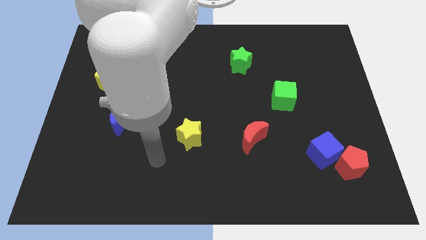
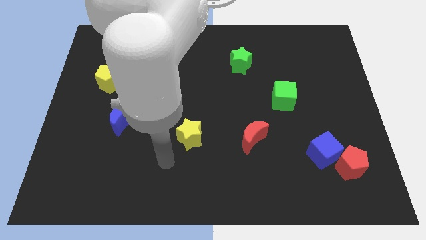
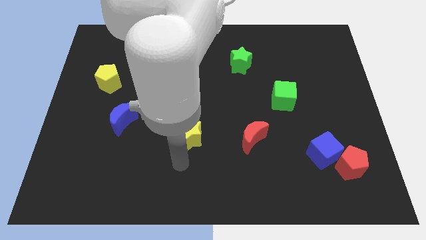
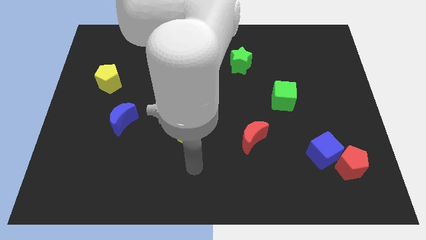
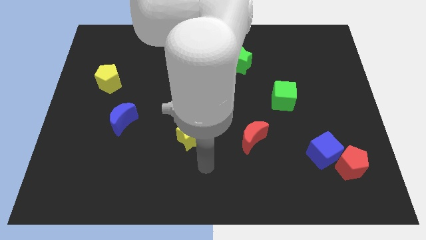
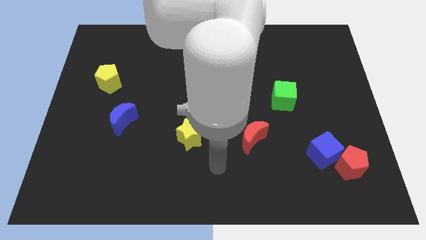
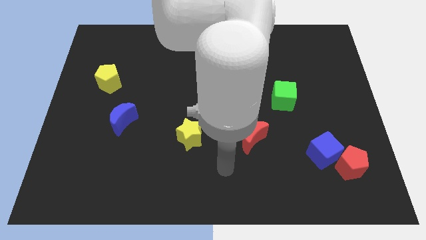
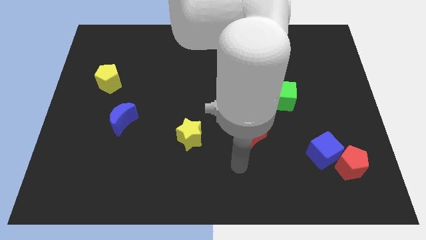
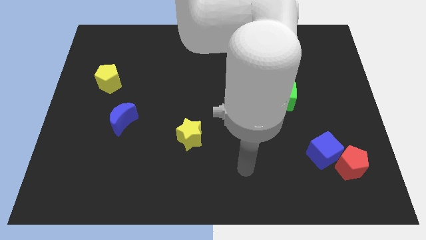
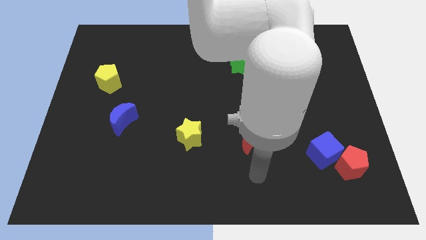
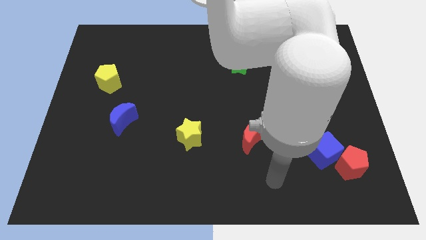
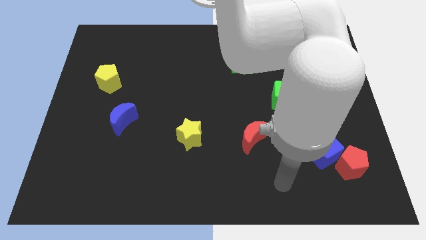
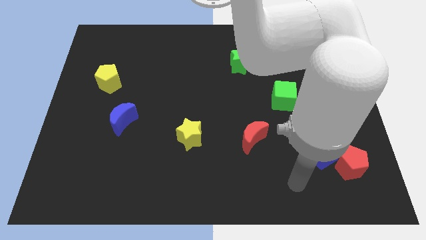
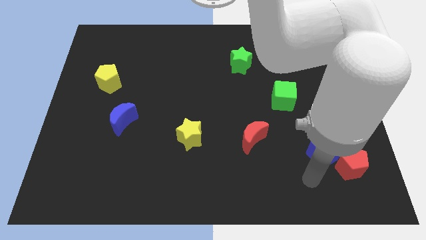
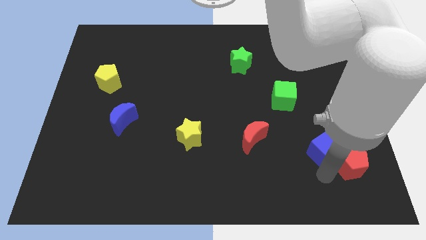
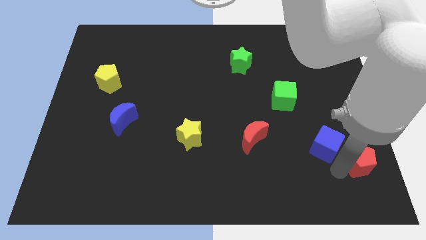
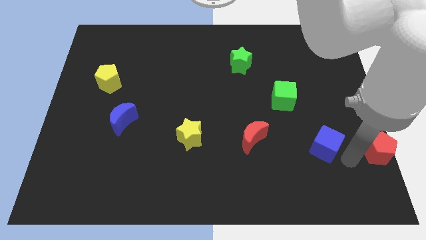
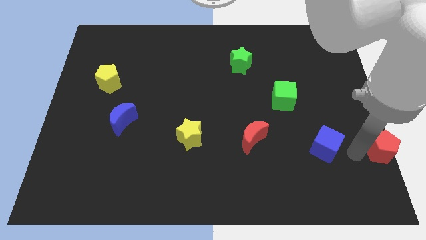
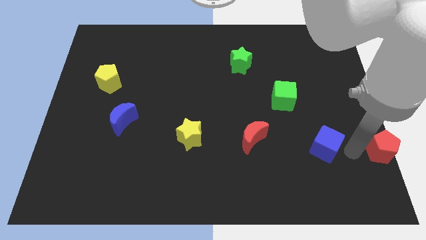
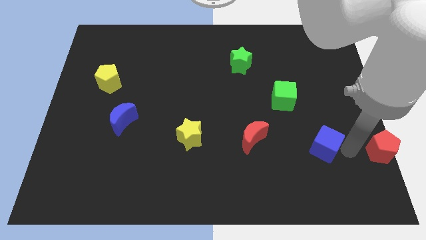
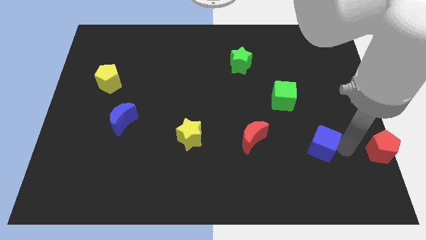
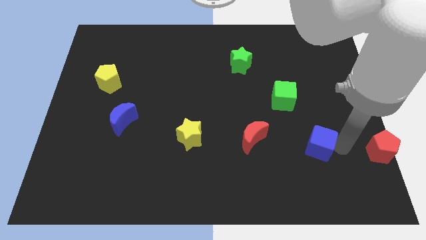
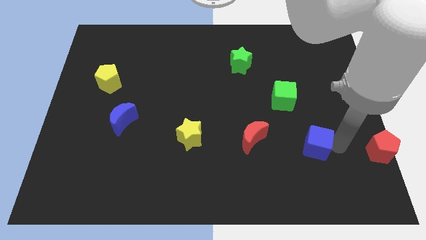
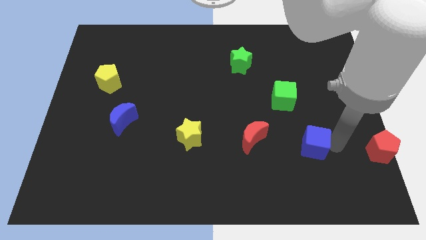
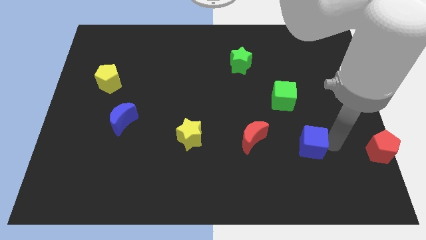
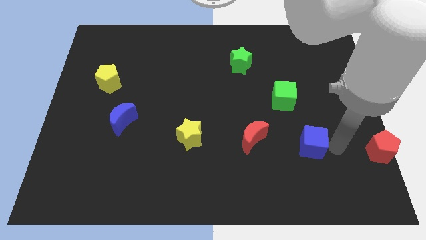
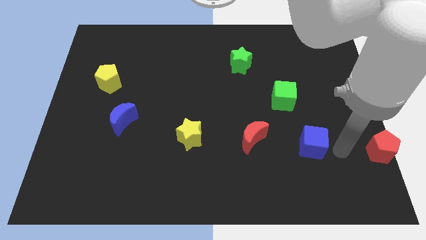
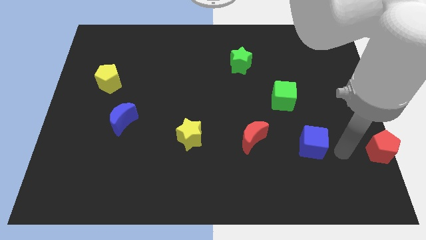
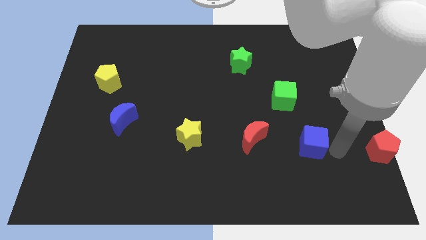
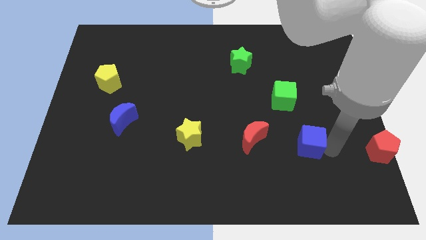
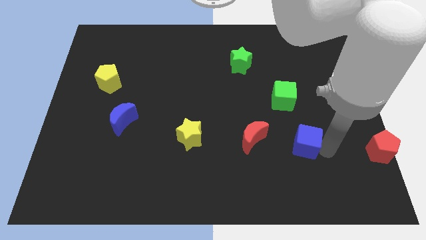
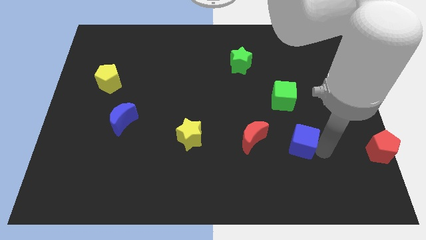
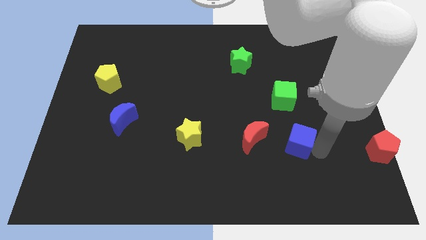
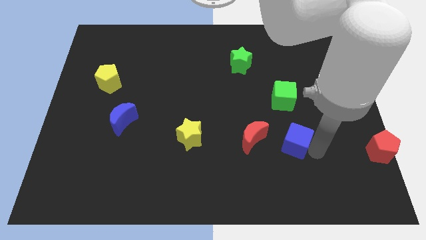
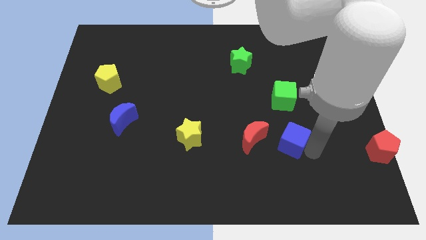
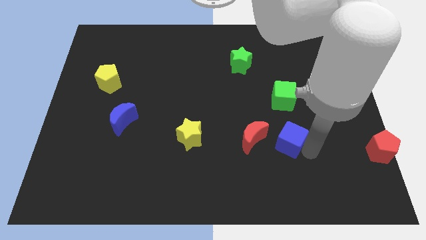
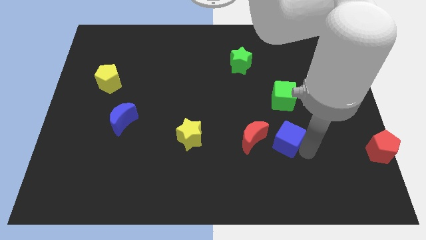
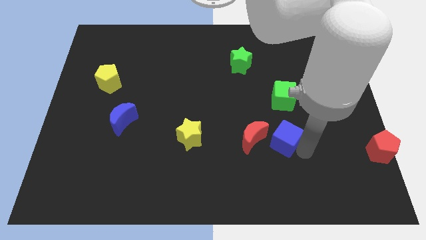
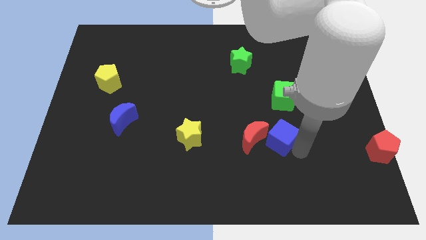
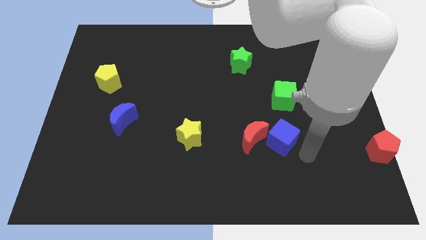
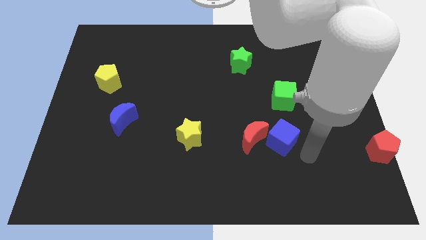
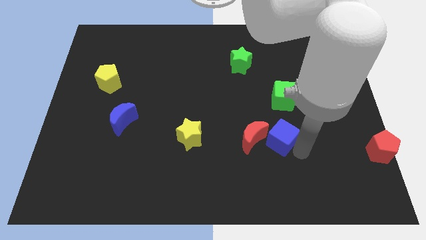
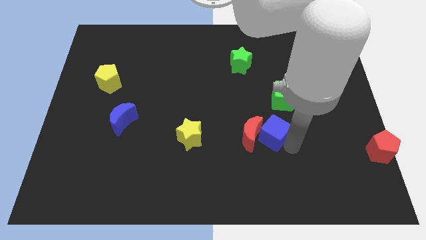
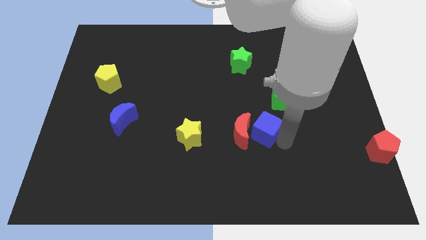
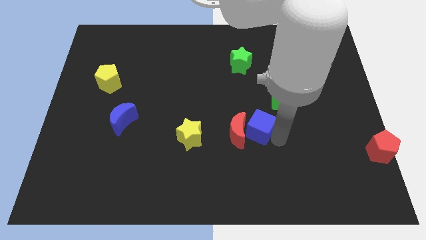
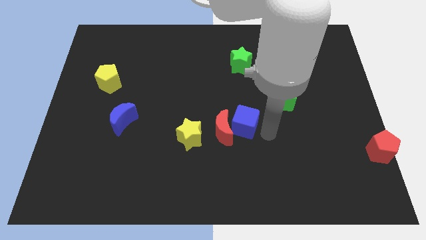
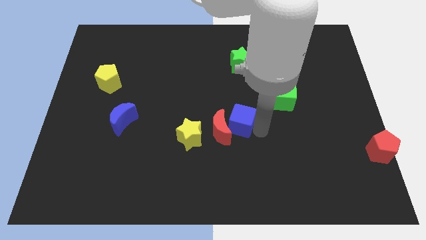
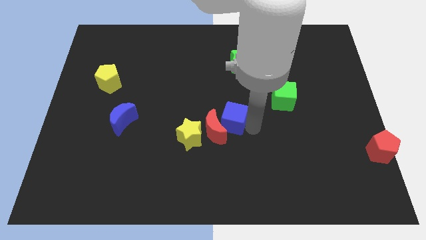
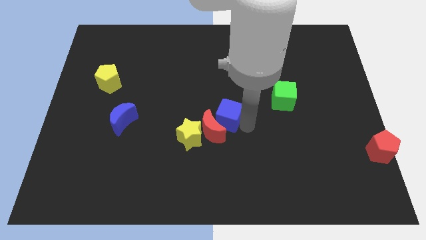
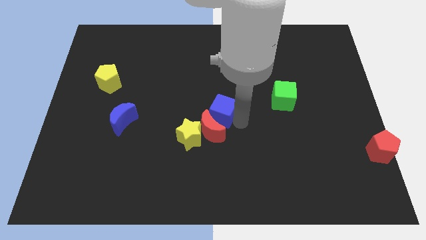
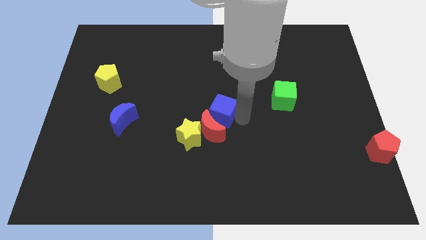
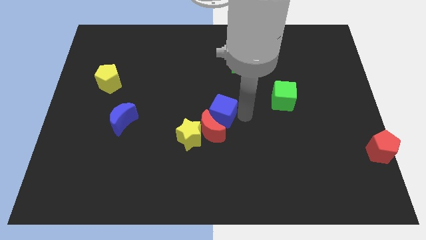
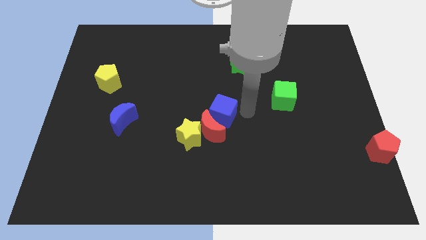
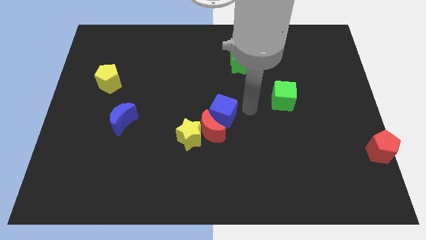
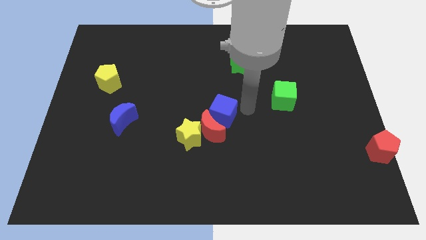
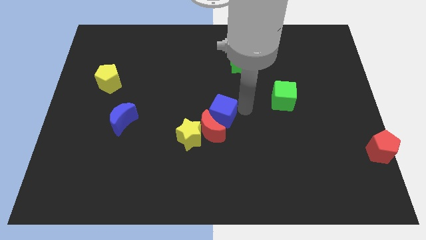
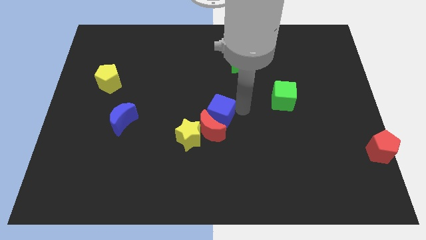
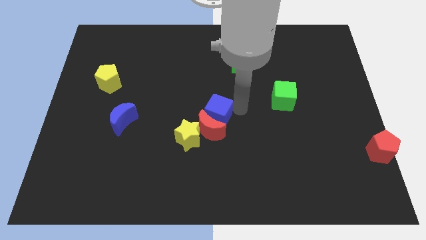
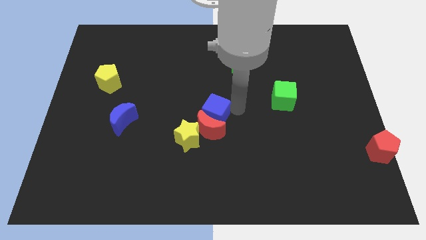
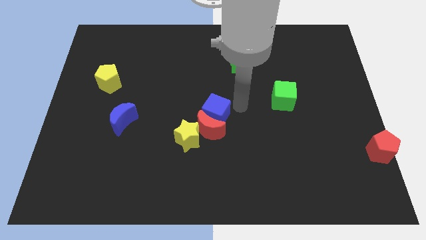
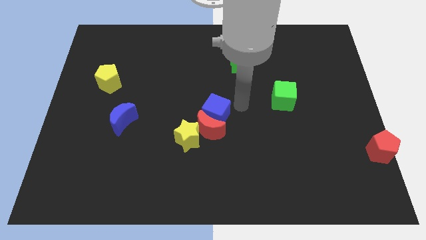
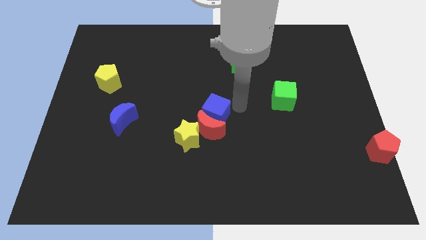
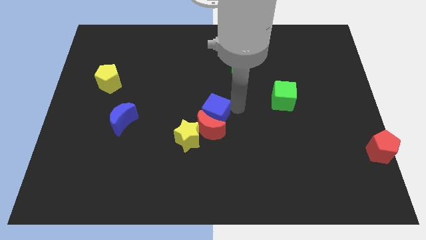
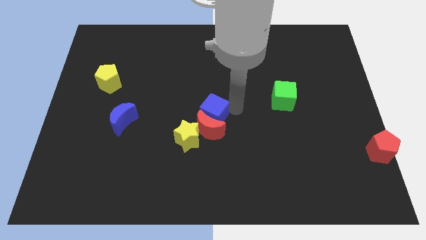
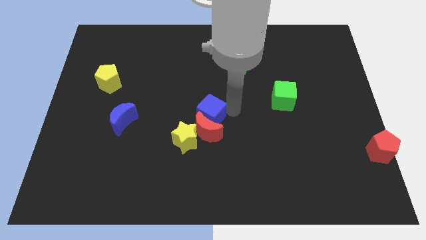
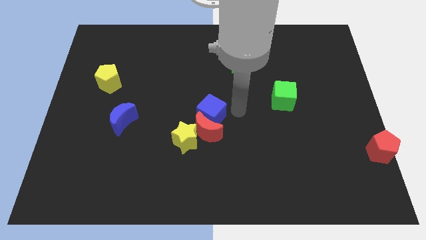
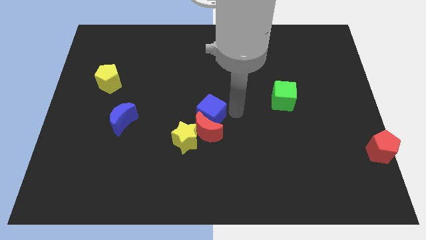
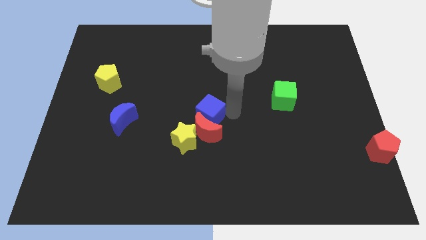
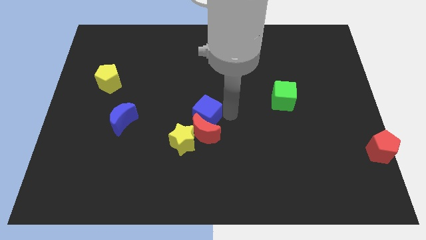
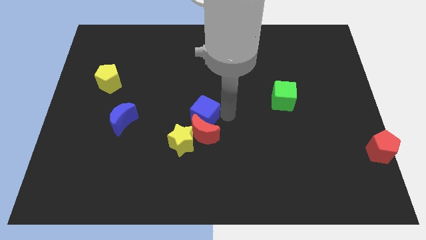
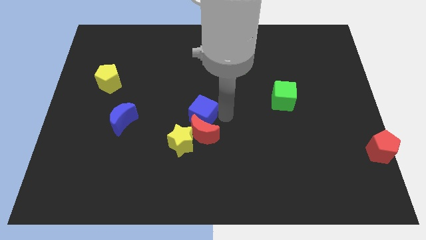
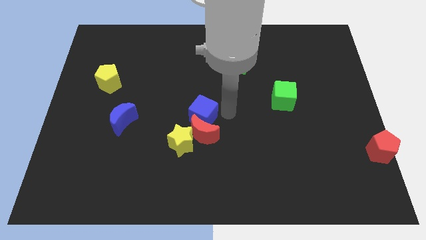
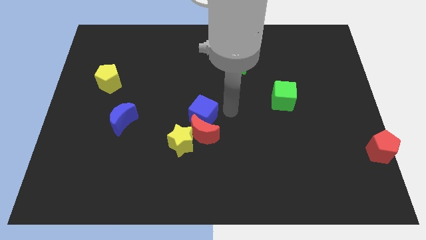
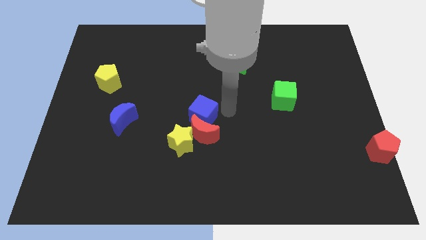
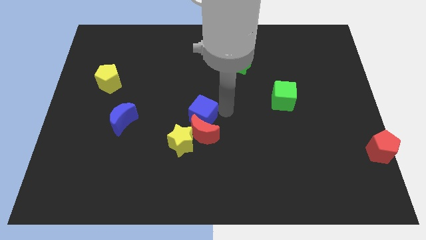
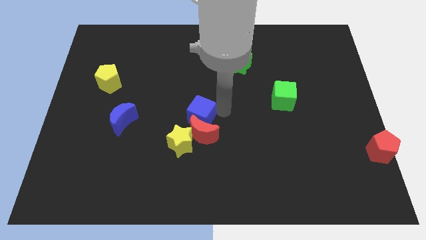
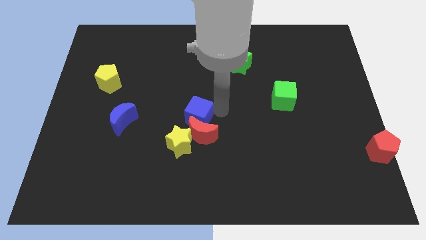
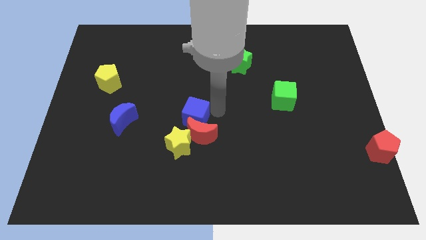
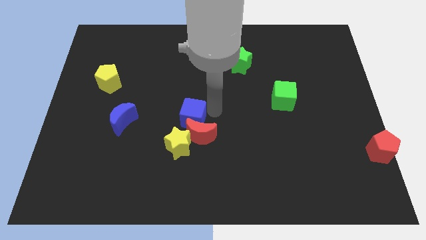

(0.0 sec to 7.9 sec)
slide the blue cube to the right side of the blue moon
